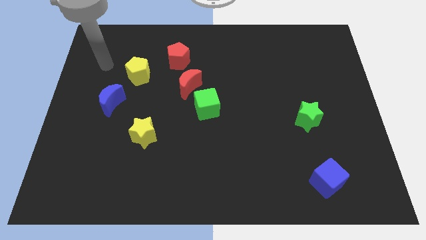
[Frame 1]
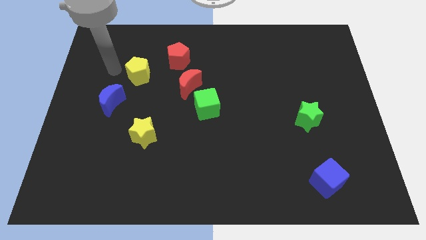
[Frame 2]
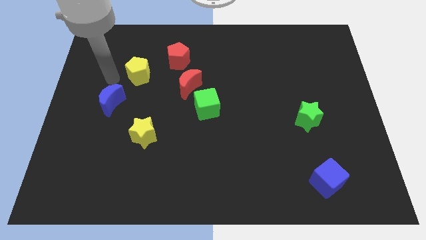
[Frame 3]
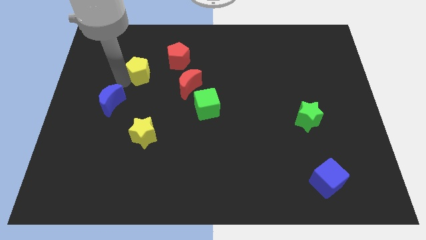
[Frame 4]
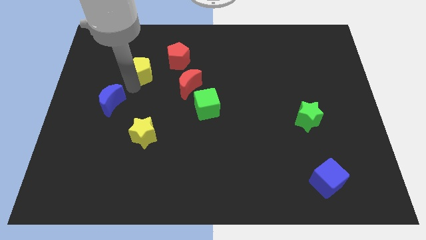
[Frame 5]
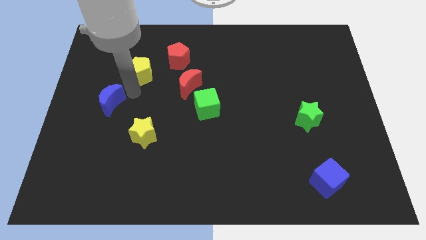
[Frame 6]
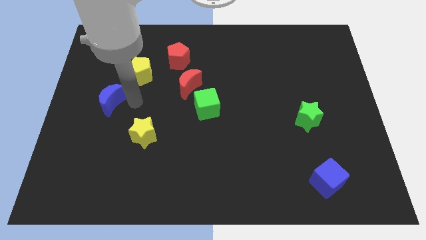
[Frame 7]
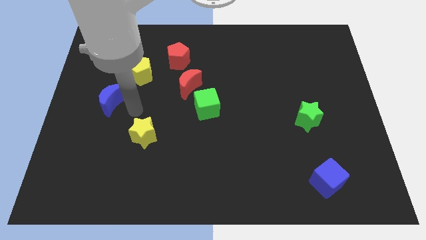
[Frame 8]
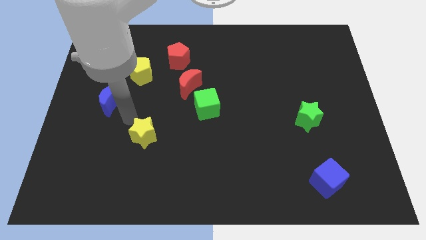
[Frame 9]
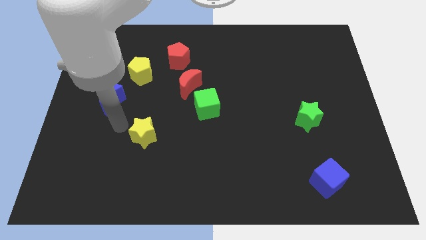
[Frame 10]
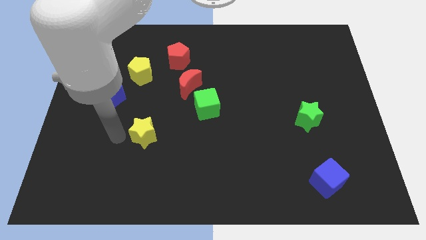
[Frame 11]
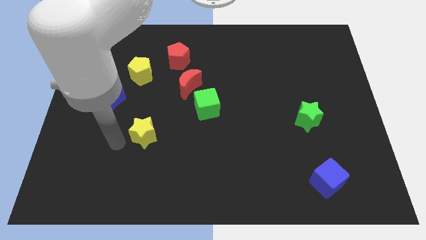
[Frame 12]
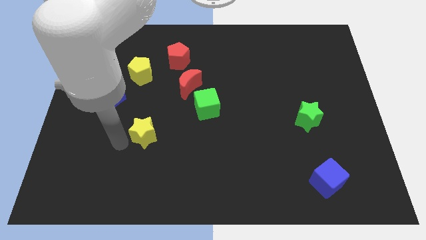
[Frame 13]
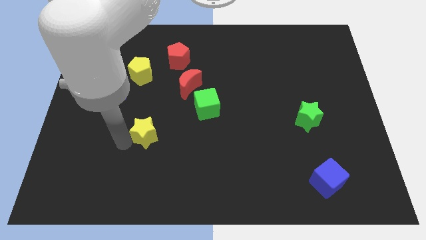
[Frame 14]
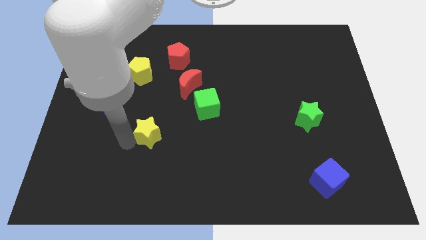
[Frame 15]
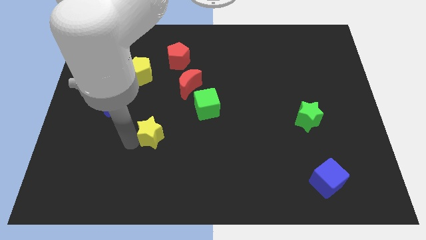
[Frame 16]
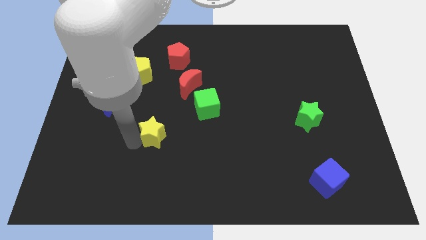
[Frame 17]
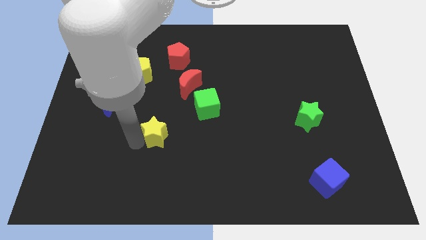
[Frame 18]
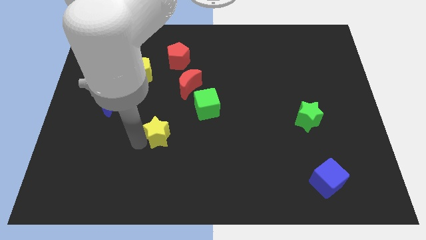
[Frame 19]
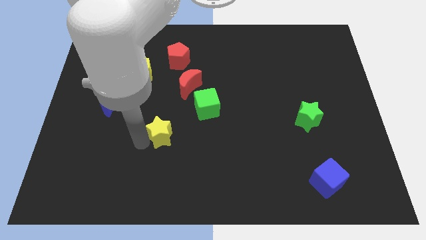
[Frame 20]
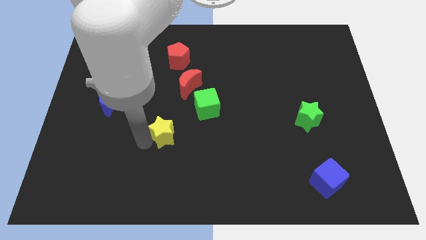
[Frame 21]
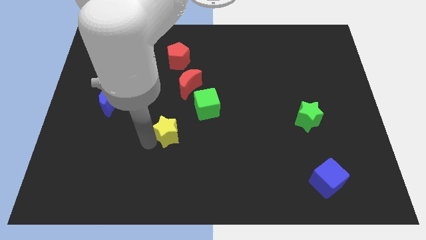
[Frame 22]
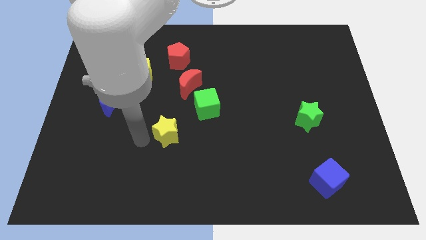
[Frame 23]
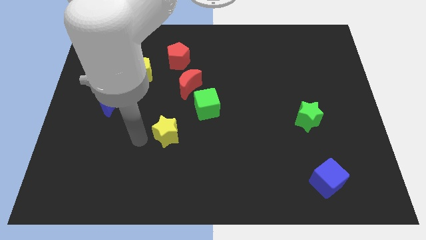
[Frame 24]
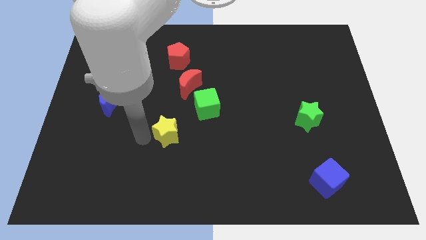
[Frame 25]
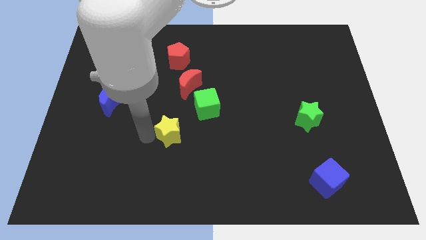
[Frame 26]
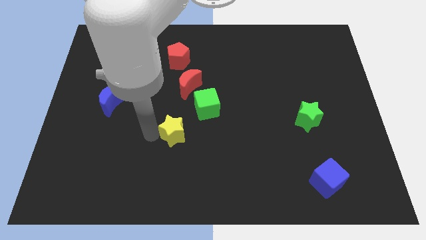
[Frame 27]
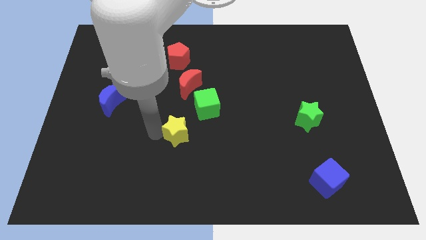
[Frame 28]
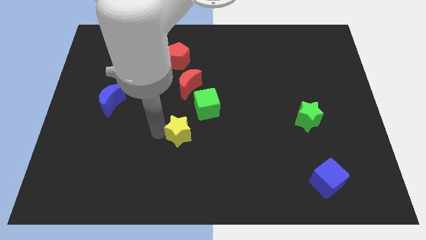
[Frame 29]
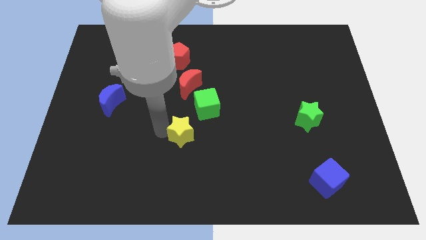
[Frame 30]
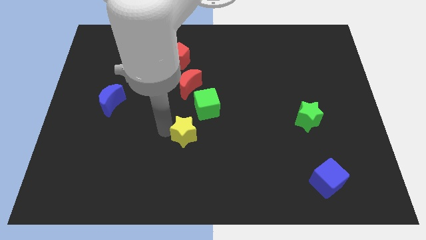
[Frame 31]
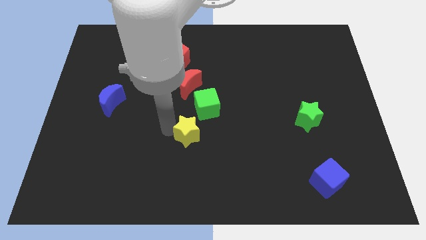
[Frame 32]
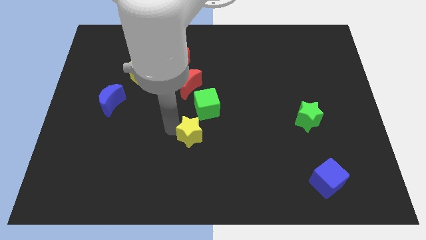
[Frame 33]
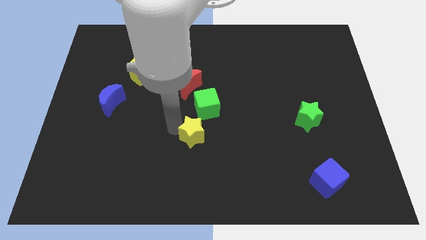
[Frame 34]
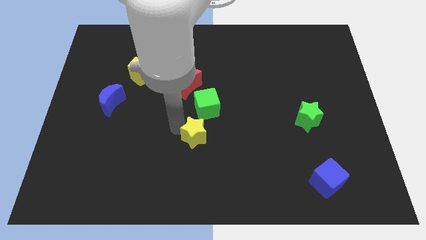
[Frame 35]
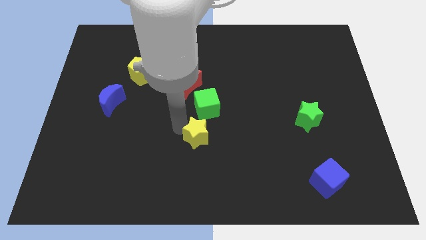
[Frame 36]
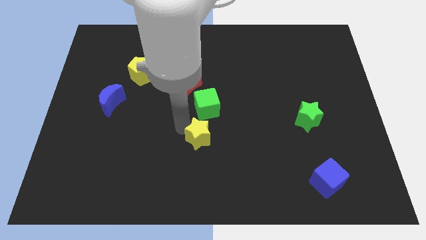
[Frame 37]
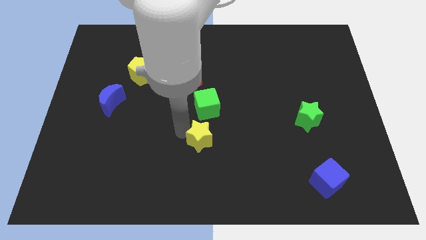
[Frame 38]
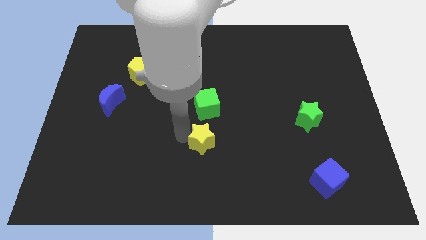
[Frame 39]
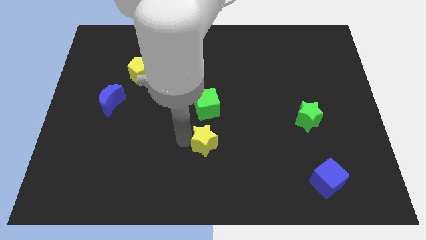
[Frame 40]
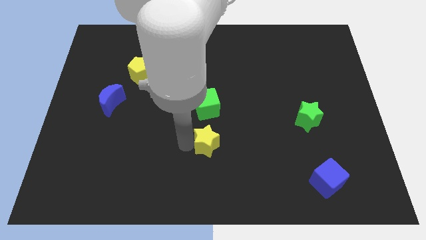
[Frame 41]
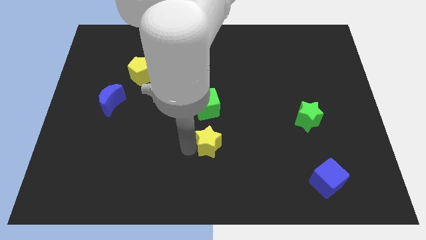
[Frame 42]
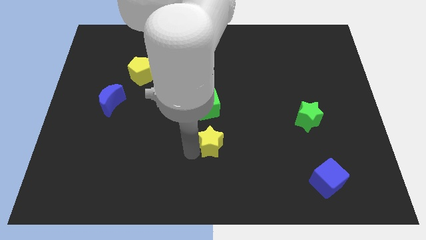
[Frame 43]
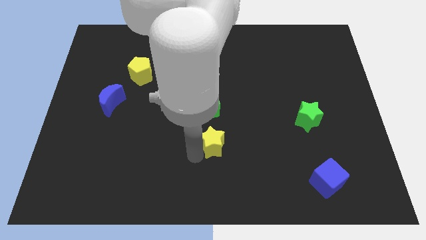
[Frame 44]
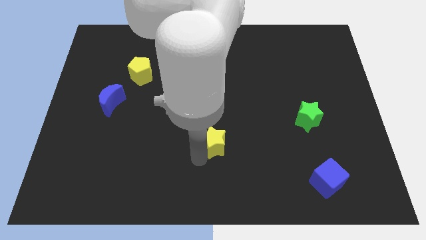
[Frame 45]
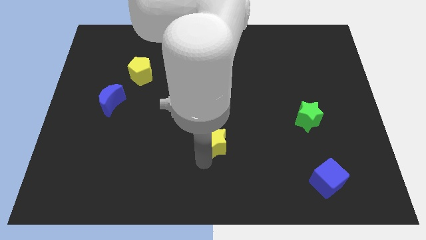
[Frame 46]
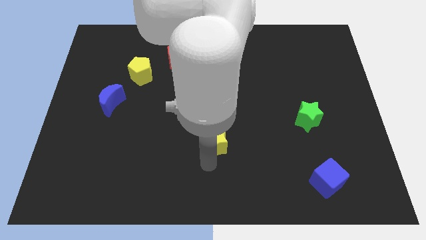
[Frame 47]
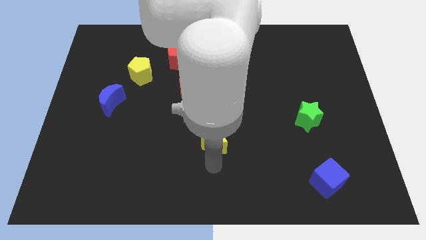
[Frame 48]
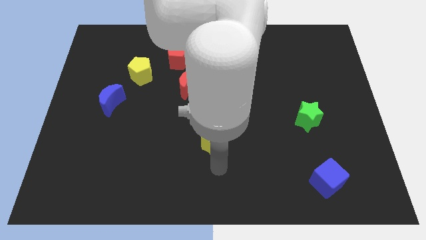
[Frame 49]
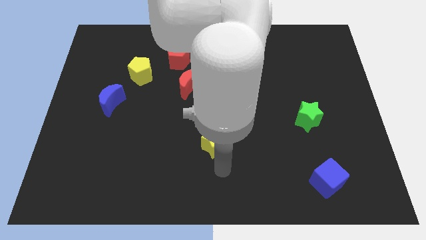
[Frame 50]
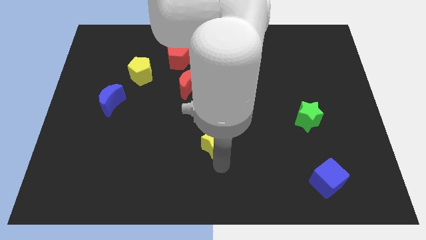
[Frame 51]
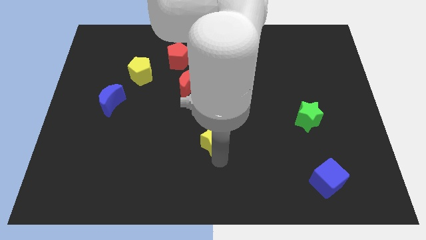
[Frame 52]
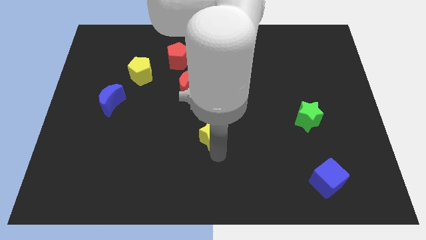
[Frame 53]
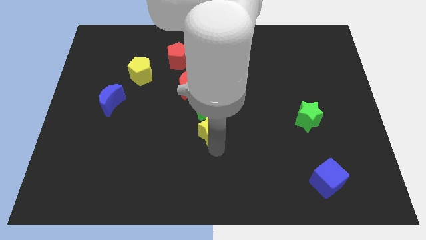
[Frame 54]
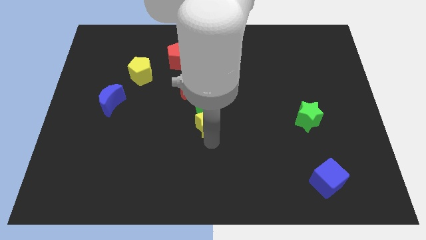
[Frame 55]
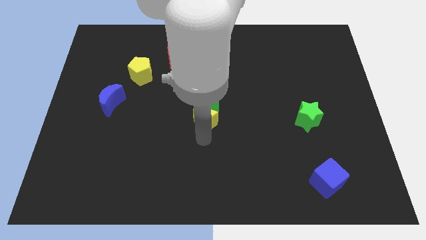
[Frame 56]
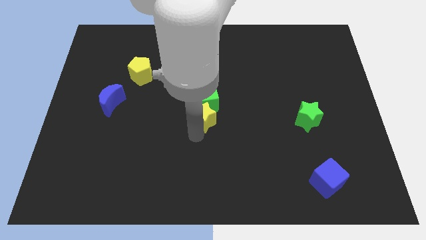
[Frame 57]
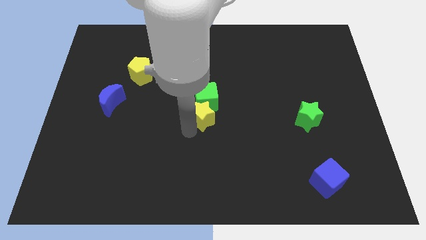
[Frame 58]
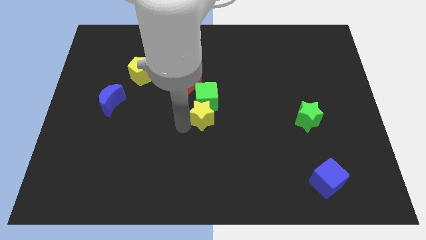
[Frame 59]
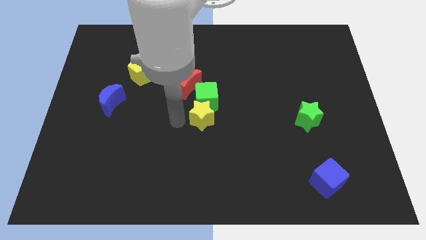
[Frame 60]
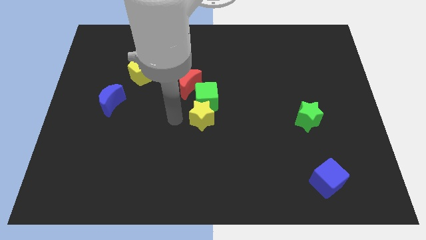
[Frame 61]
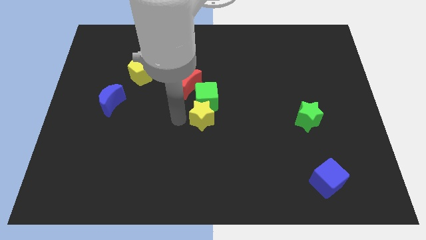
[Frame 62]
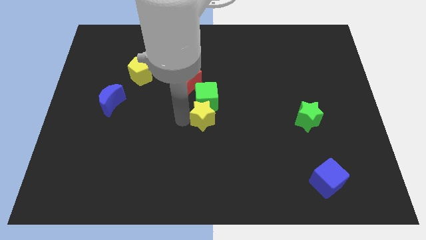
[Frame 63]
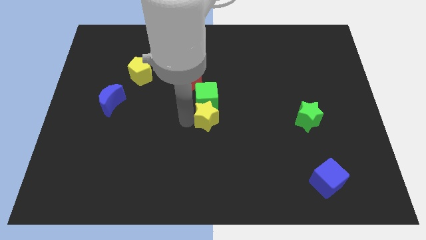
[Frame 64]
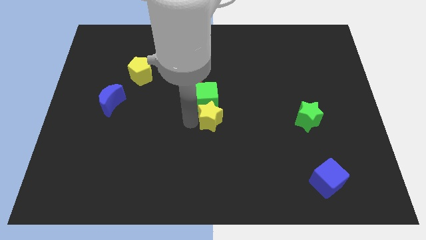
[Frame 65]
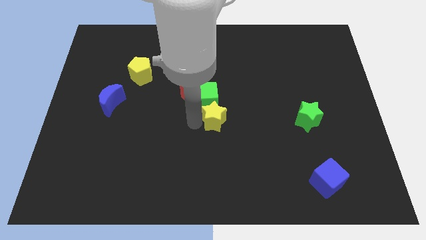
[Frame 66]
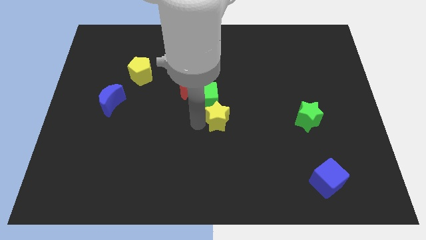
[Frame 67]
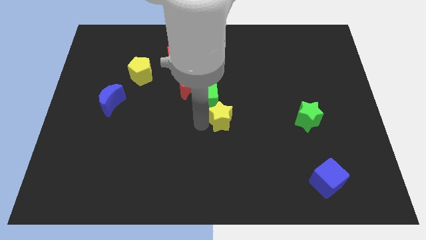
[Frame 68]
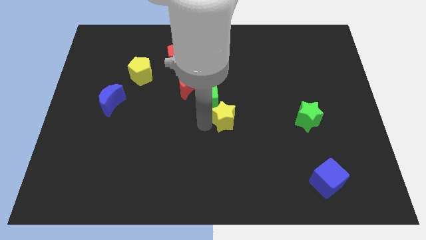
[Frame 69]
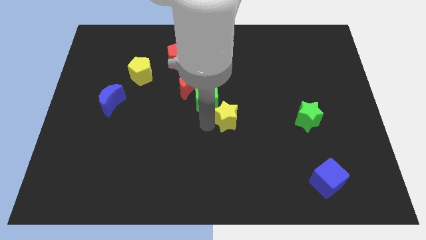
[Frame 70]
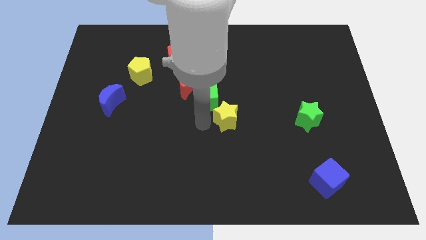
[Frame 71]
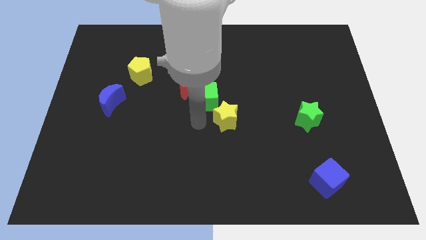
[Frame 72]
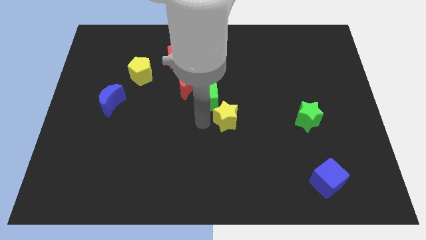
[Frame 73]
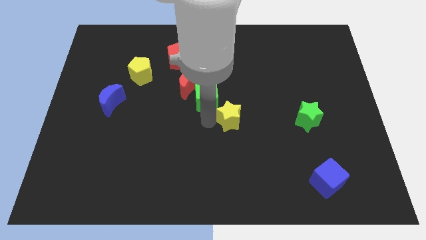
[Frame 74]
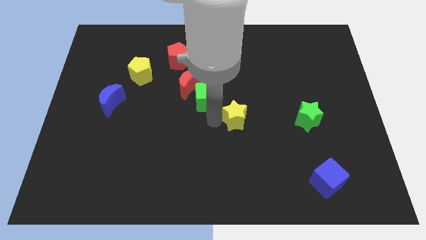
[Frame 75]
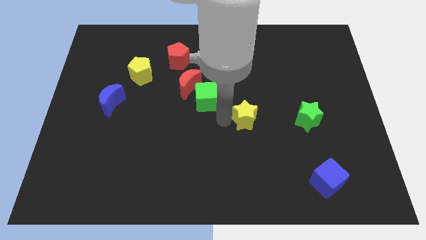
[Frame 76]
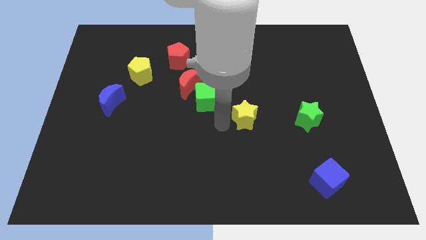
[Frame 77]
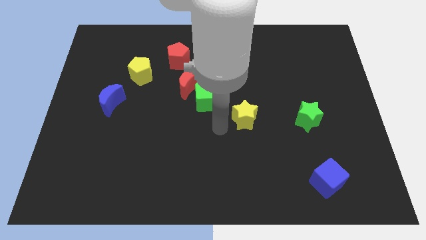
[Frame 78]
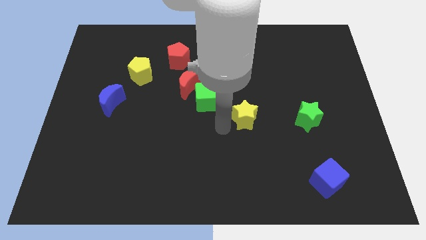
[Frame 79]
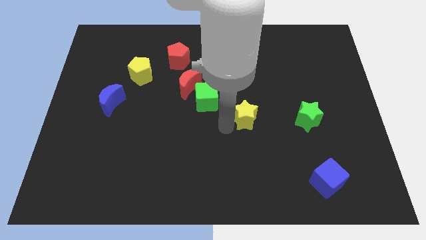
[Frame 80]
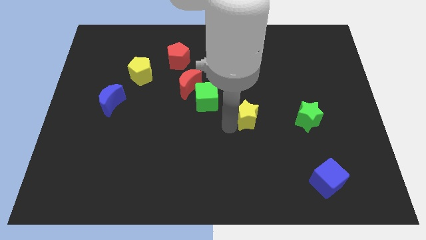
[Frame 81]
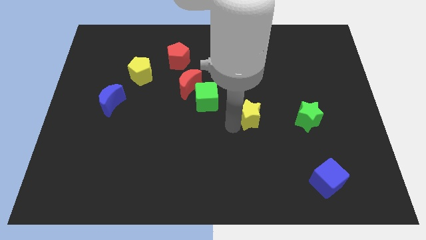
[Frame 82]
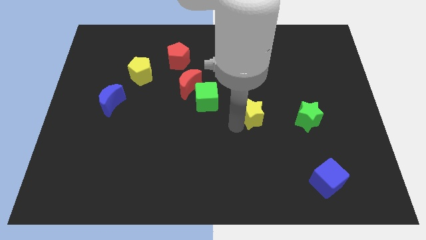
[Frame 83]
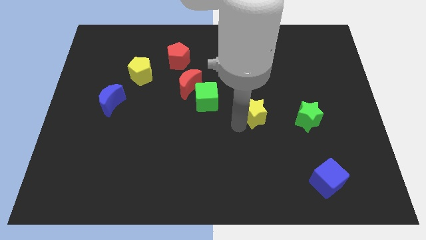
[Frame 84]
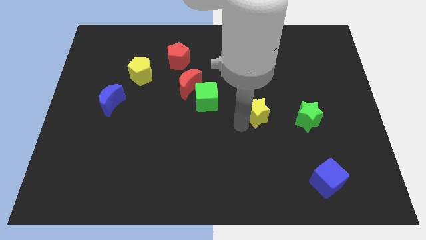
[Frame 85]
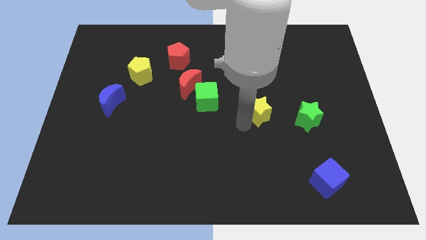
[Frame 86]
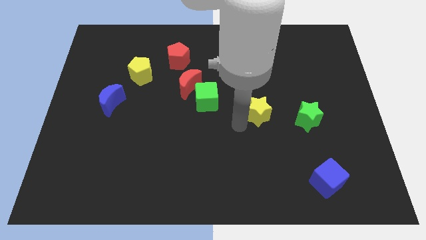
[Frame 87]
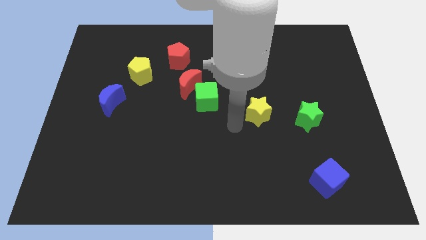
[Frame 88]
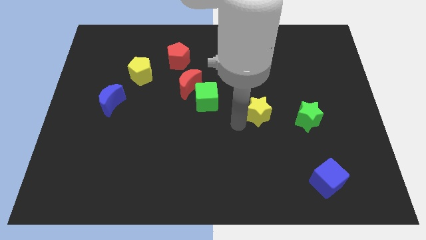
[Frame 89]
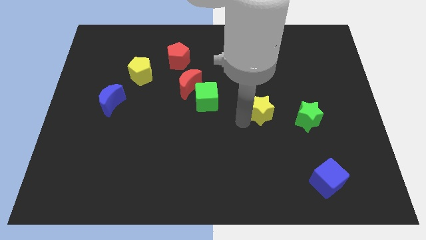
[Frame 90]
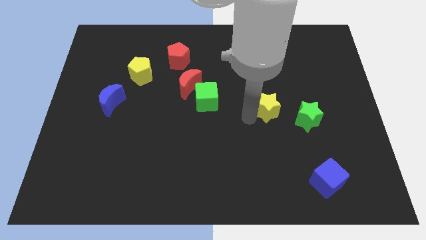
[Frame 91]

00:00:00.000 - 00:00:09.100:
push the yellow star to the top left of the green star
